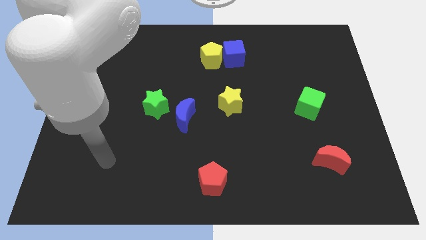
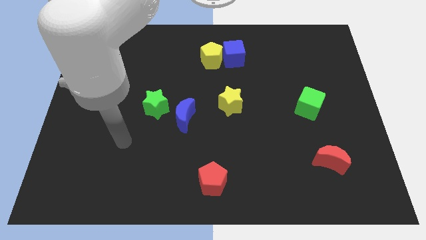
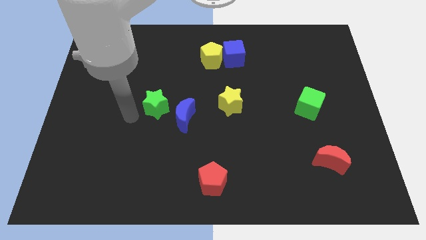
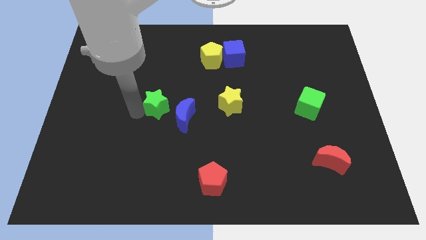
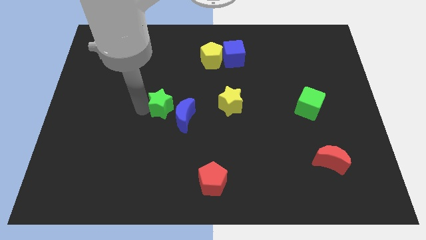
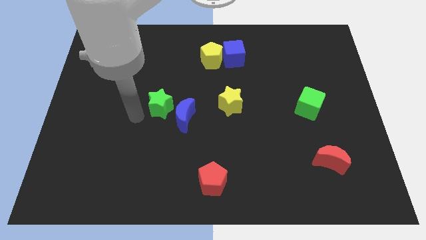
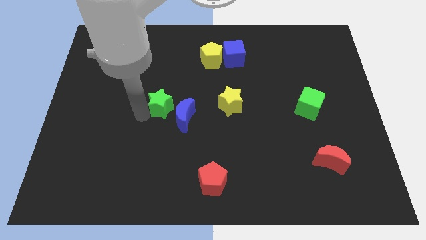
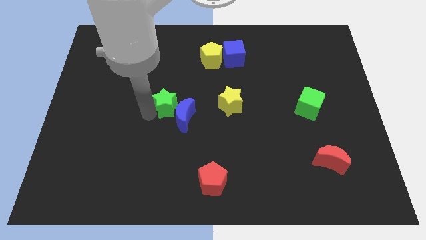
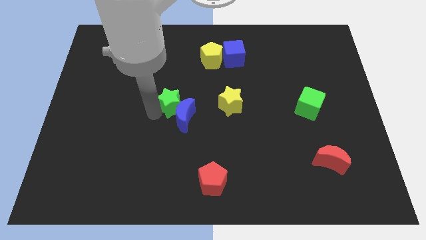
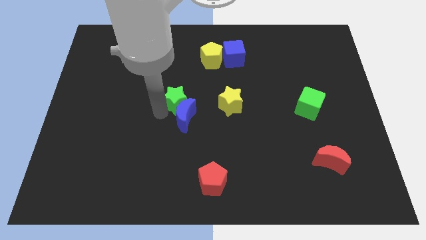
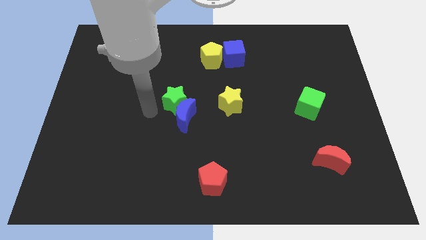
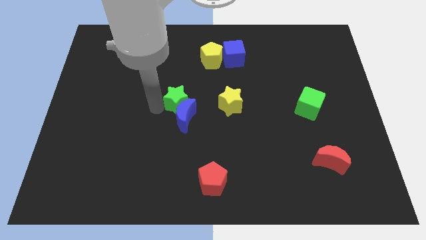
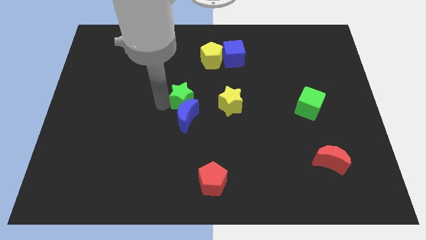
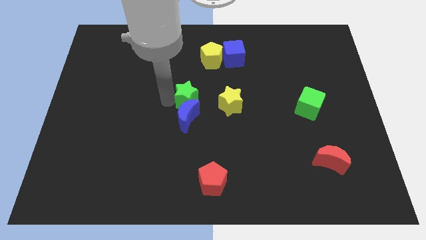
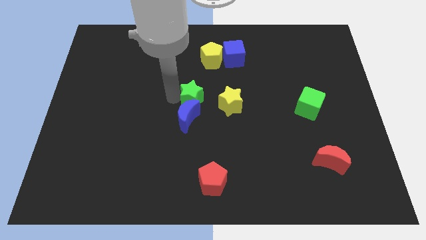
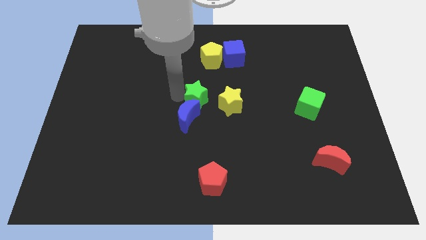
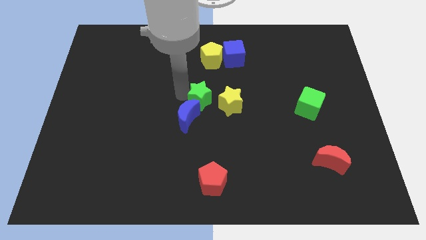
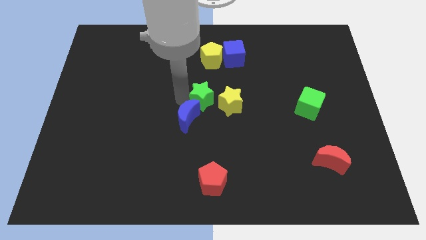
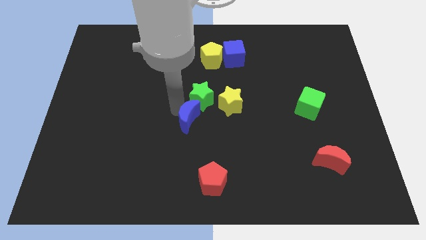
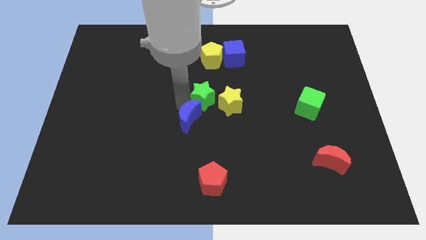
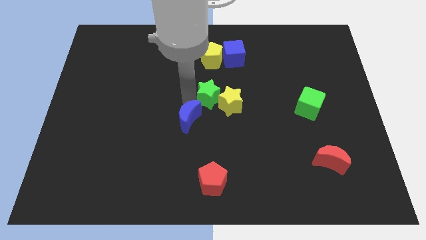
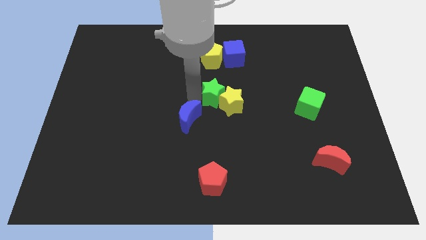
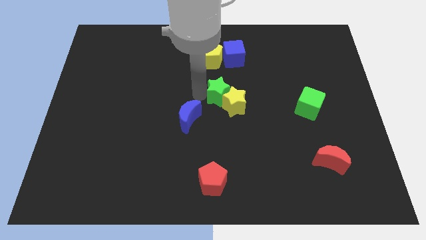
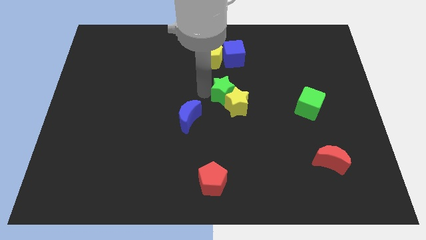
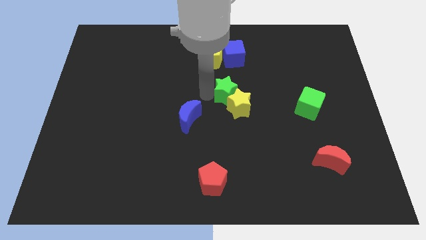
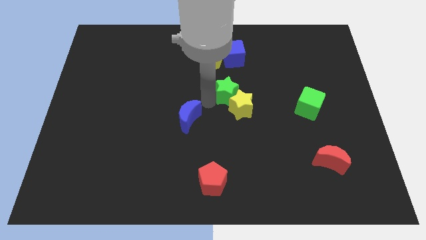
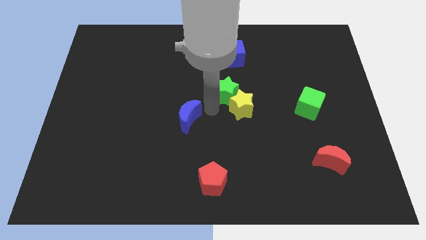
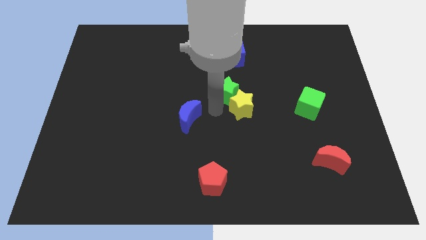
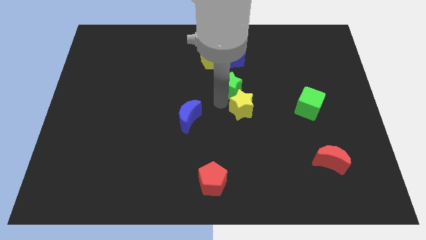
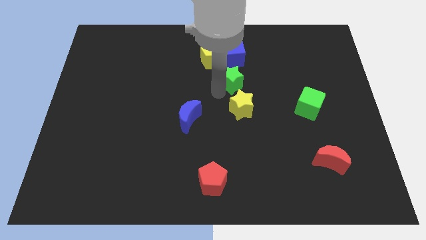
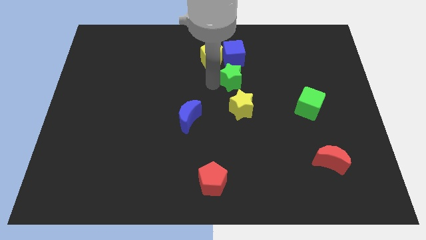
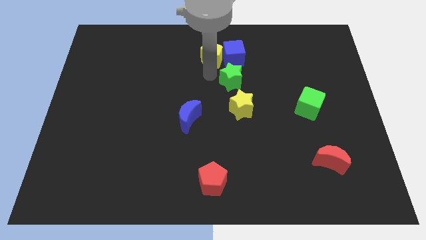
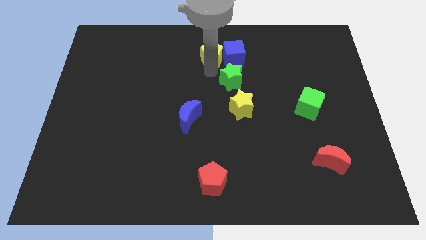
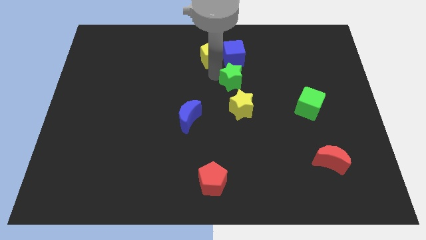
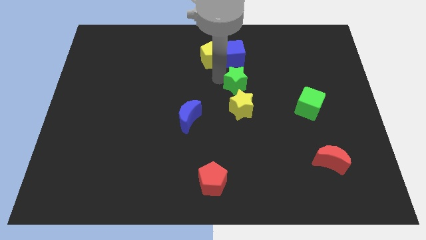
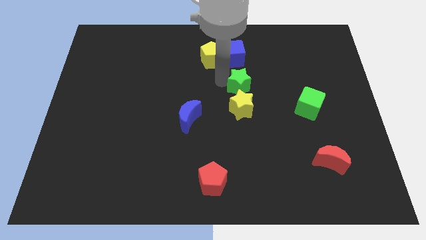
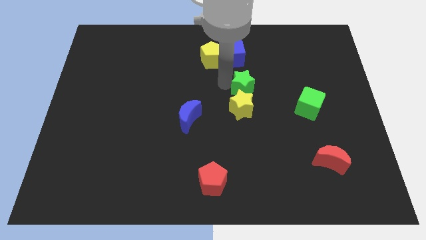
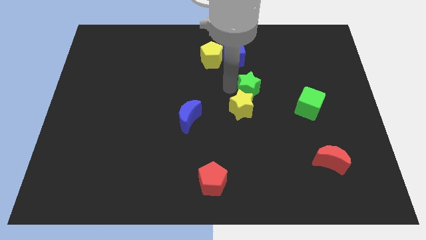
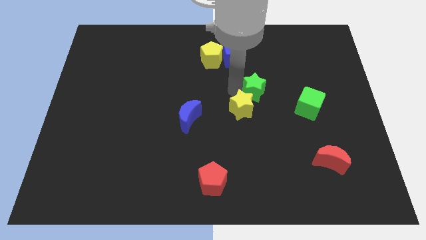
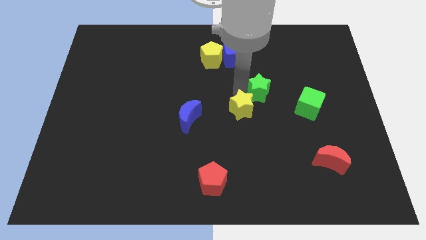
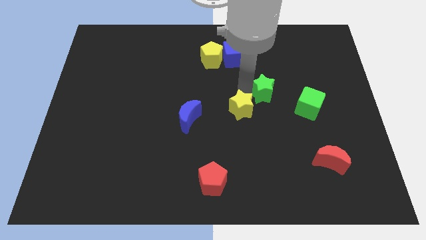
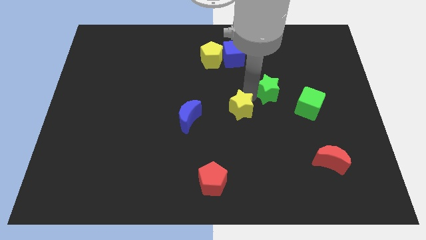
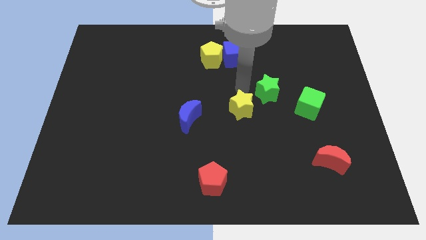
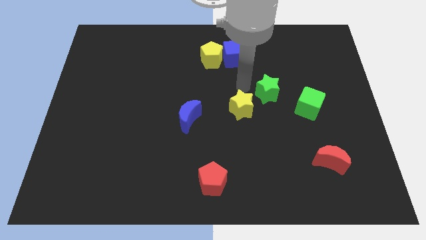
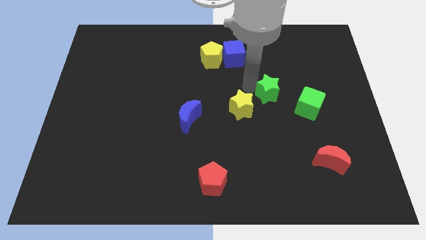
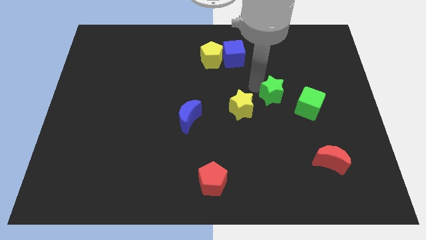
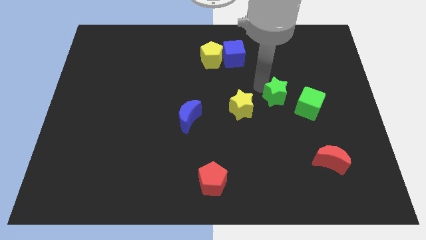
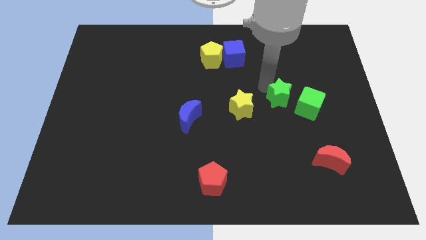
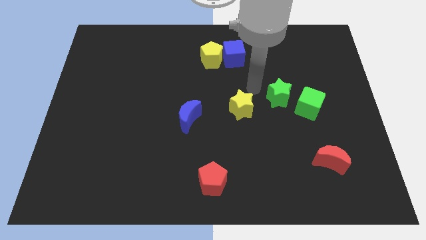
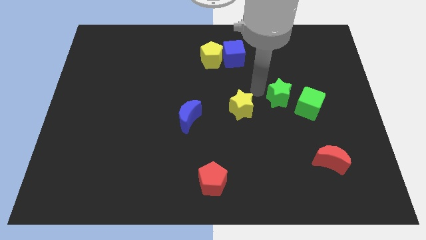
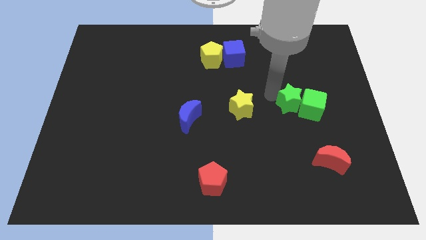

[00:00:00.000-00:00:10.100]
move the green star to the green cube

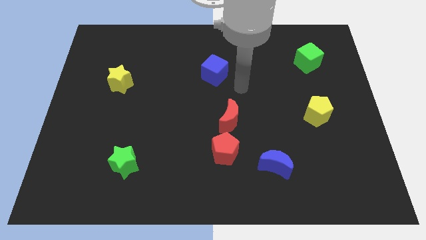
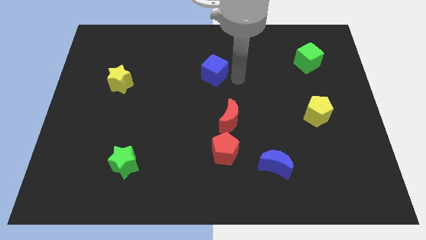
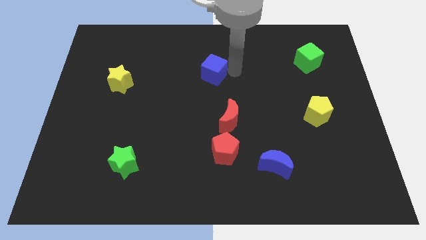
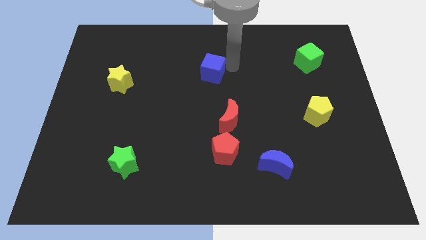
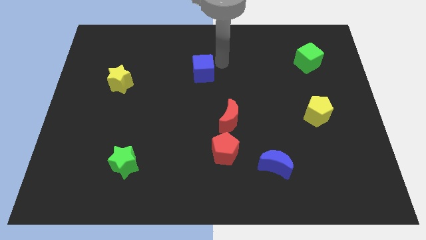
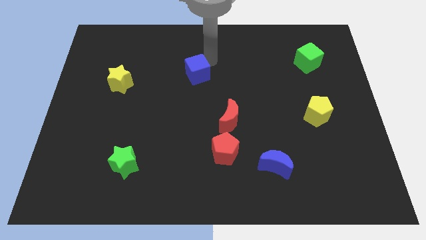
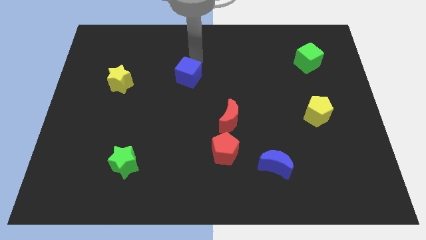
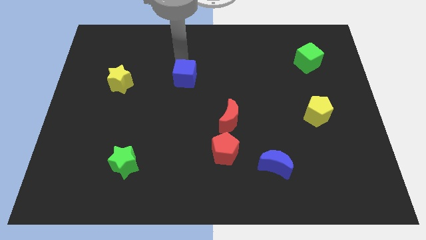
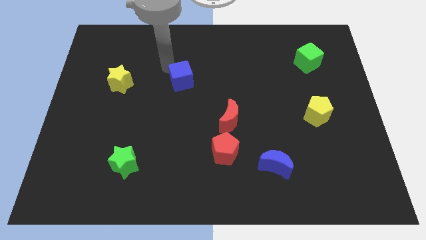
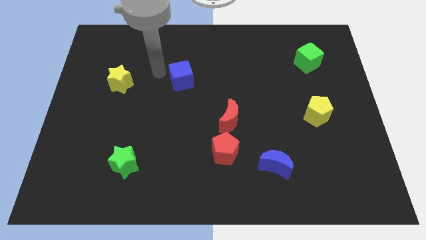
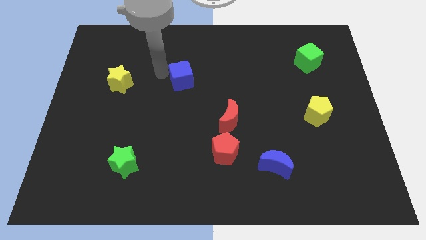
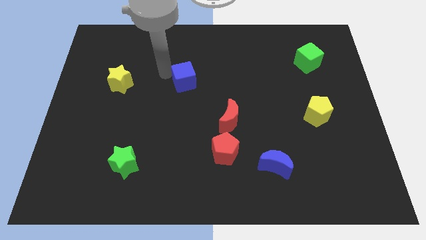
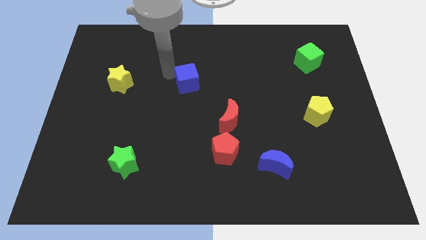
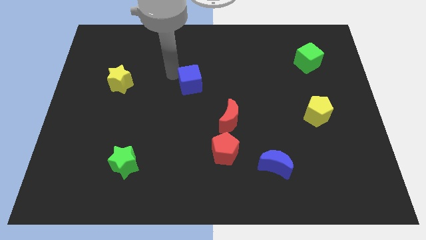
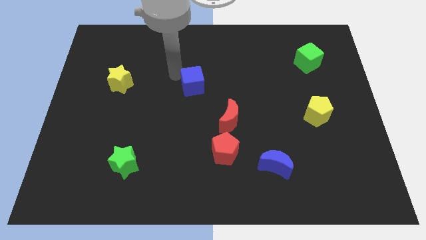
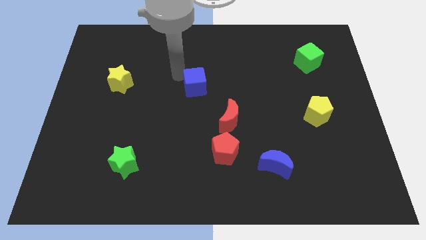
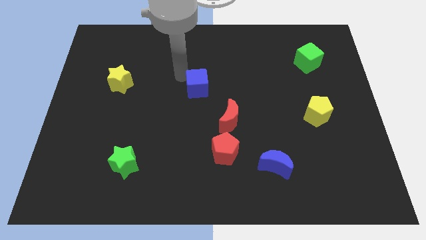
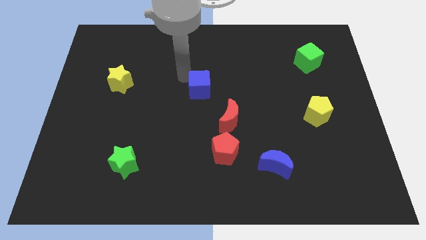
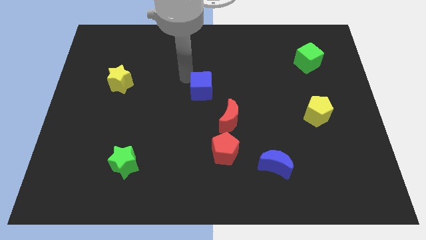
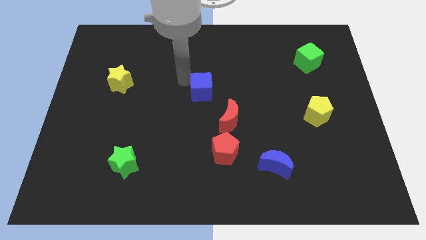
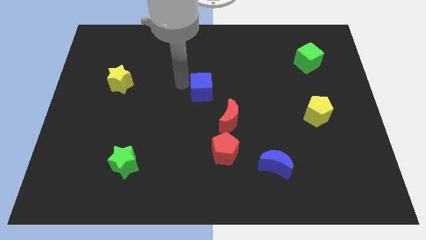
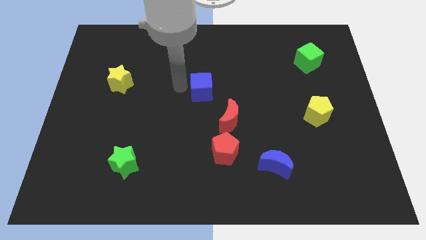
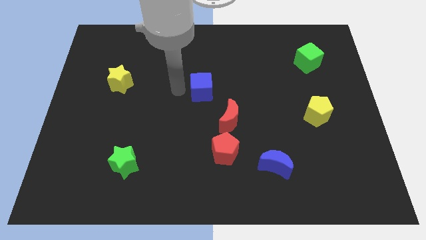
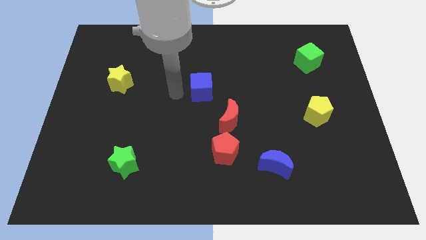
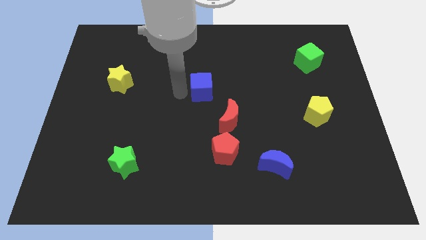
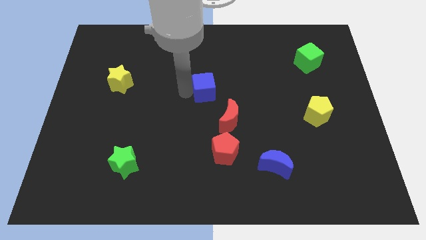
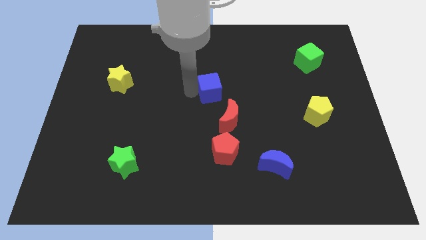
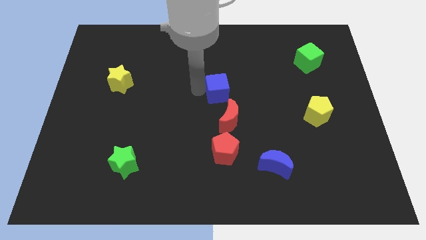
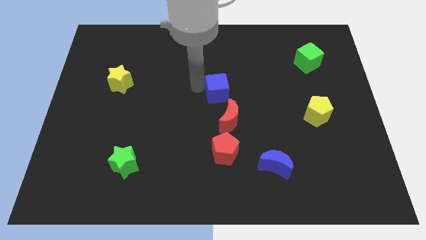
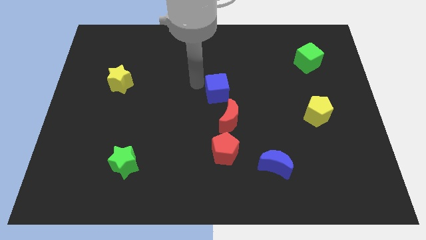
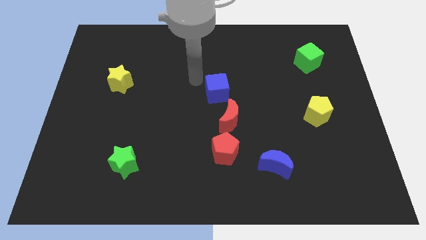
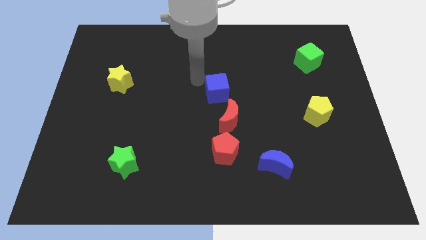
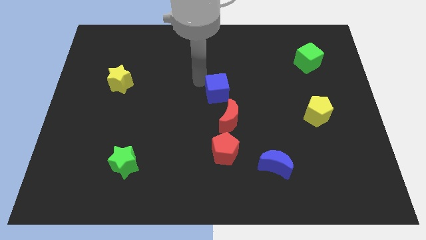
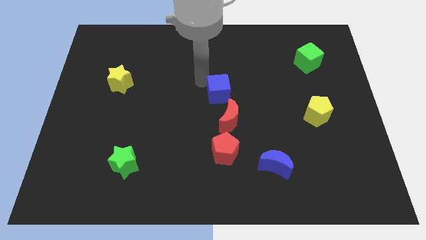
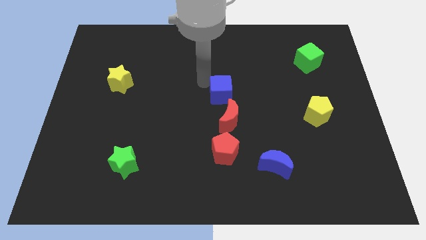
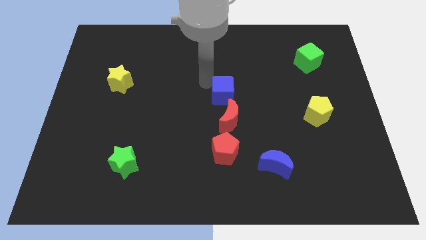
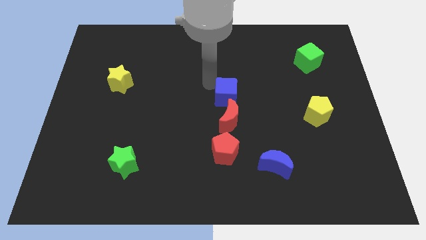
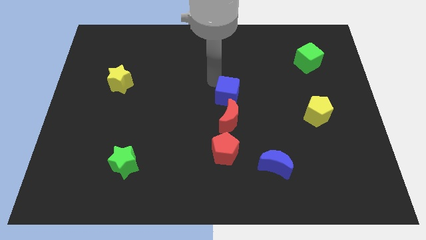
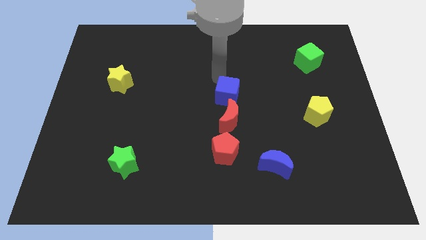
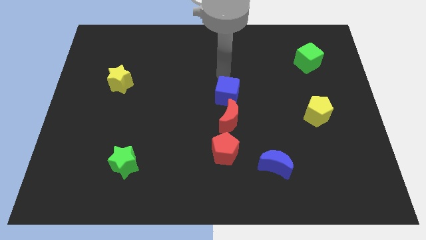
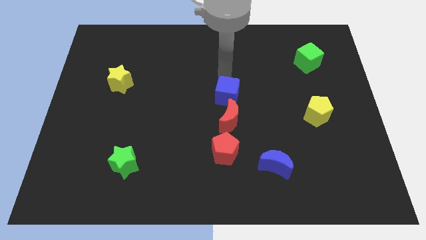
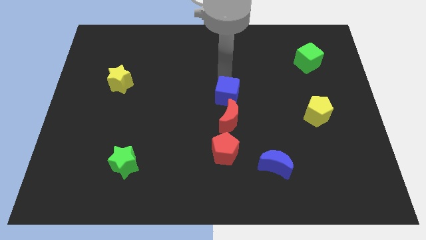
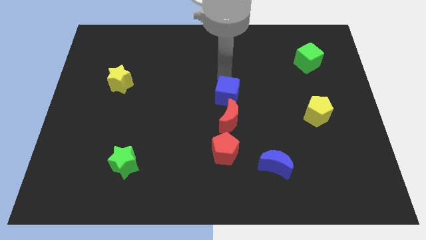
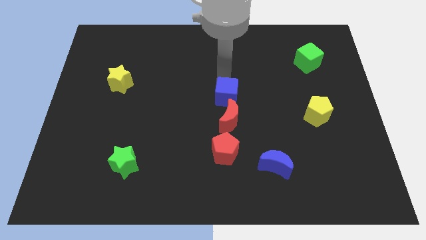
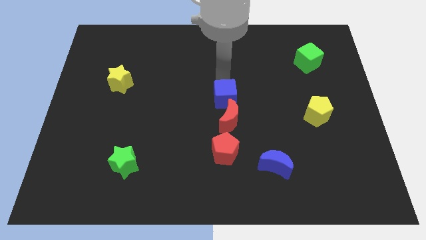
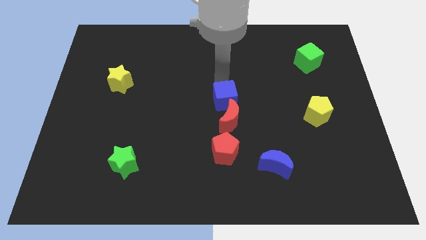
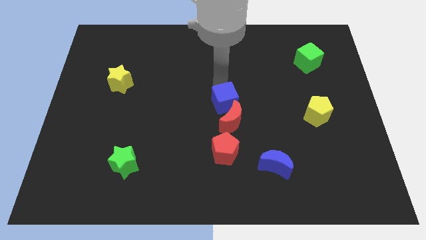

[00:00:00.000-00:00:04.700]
move the blue cube towards the red moon
